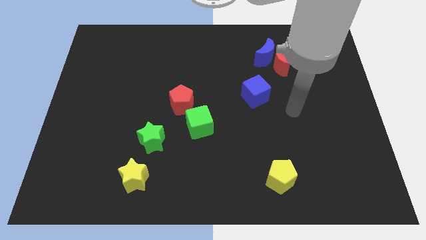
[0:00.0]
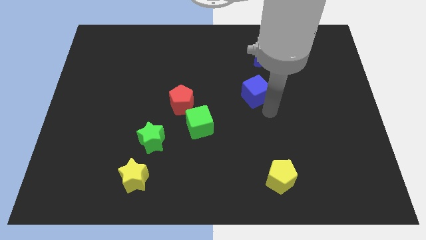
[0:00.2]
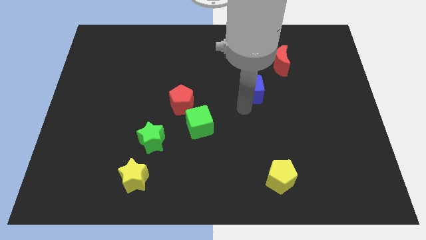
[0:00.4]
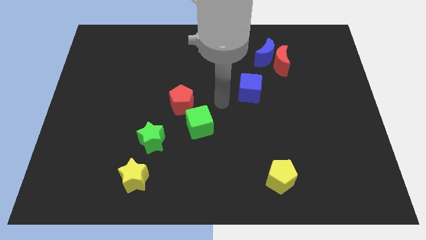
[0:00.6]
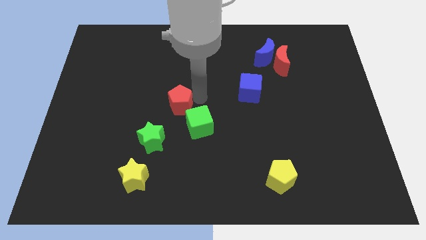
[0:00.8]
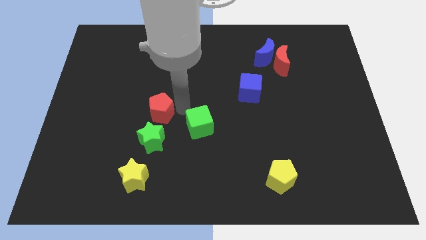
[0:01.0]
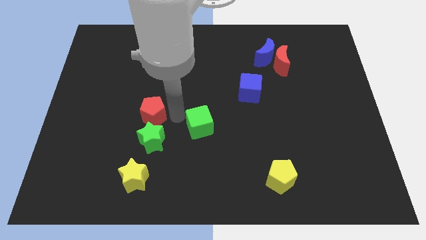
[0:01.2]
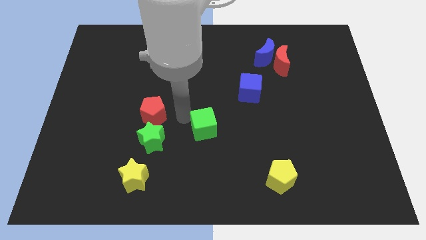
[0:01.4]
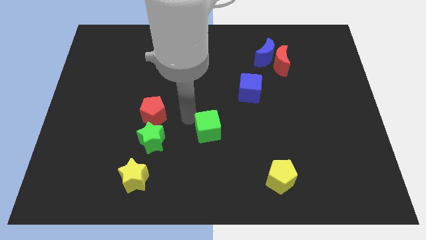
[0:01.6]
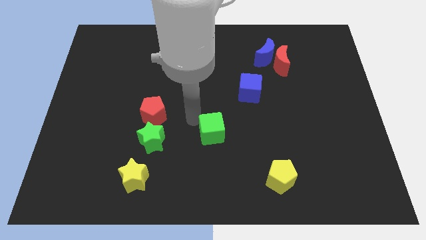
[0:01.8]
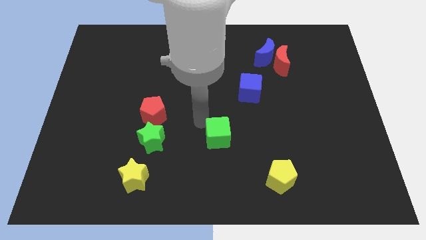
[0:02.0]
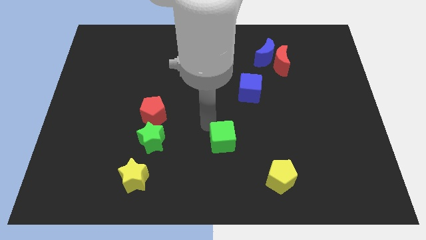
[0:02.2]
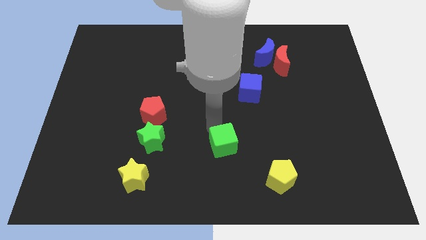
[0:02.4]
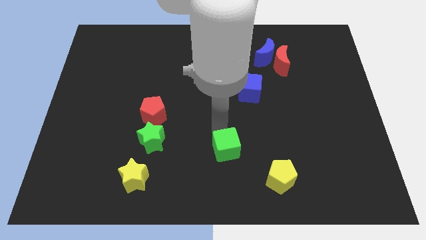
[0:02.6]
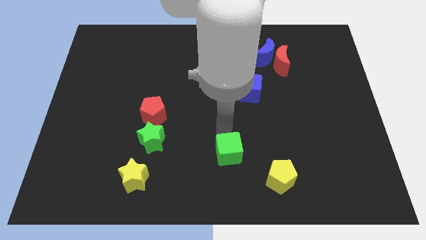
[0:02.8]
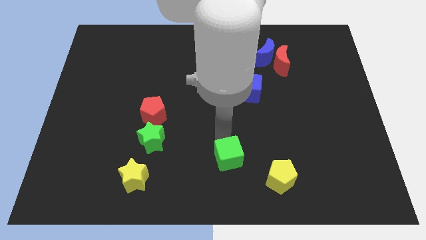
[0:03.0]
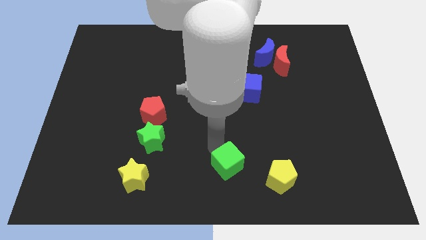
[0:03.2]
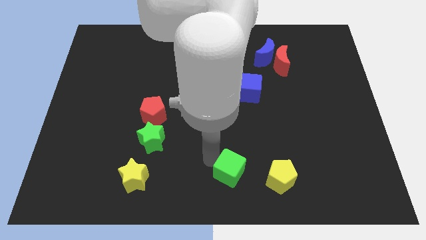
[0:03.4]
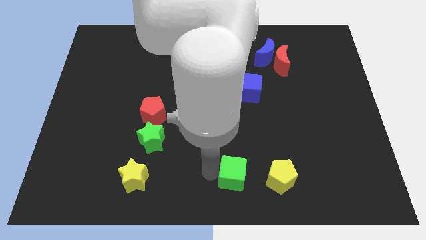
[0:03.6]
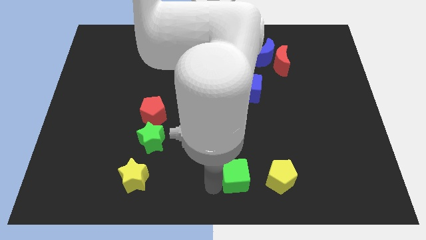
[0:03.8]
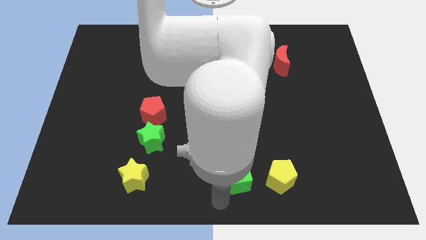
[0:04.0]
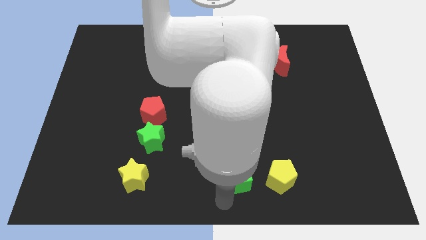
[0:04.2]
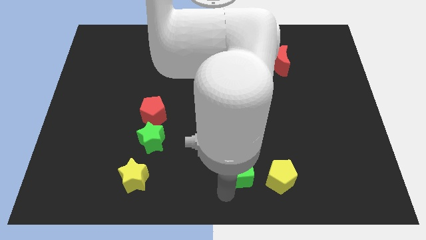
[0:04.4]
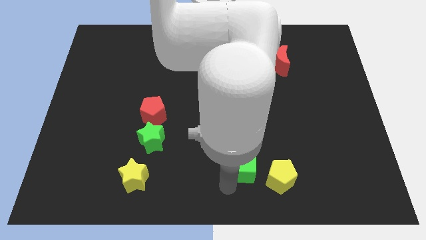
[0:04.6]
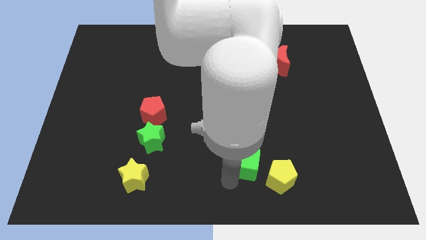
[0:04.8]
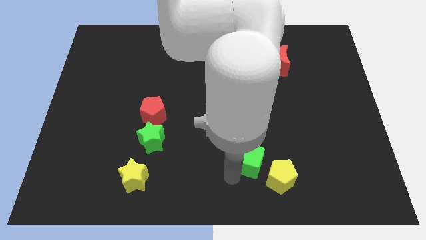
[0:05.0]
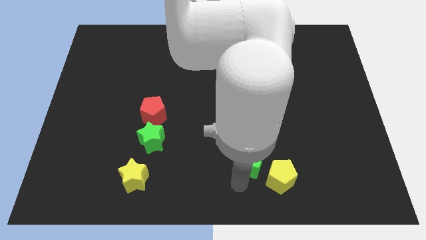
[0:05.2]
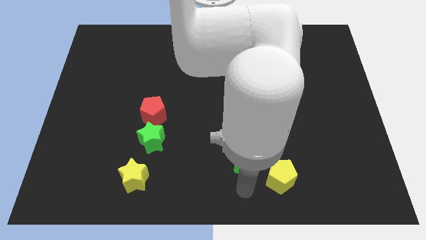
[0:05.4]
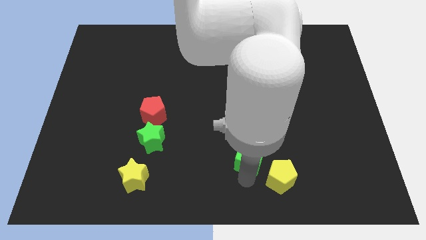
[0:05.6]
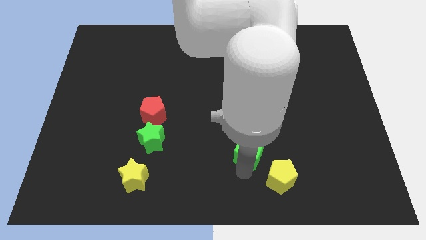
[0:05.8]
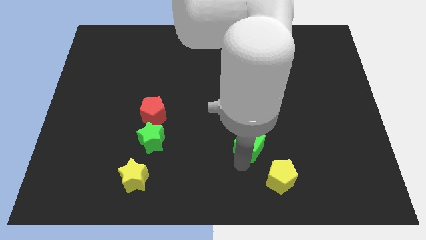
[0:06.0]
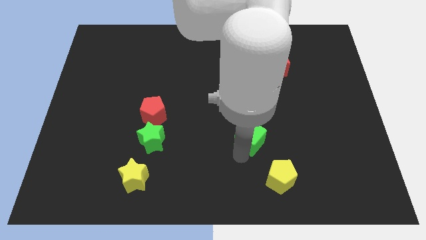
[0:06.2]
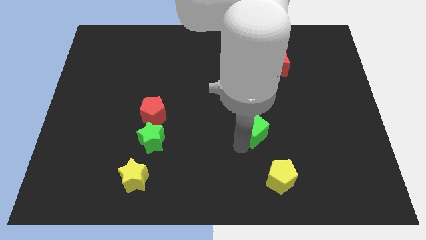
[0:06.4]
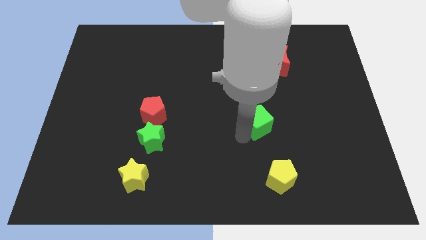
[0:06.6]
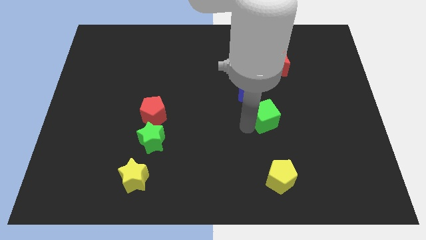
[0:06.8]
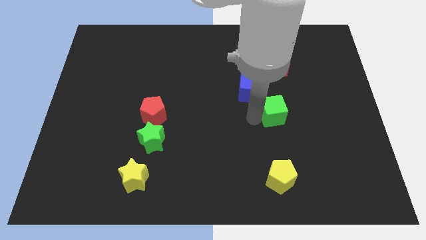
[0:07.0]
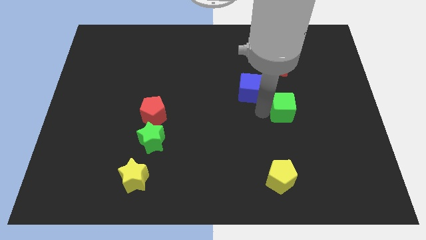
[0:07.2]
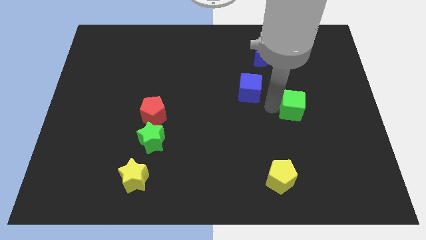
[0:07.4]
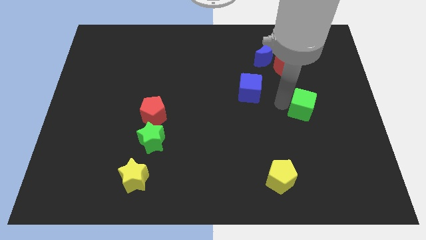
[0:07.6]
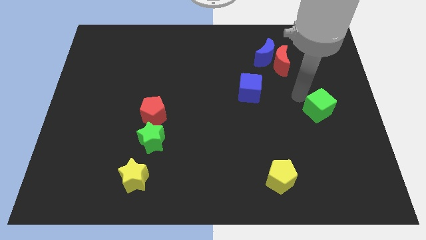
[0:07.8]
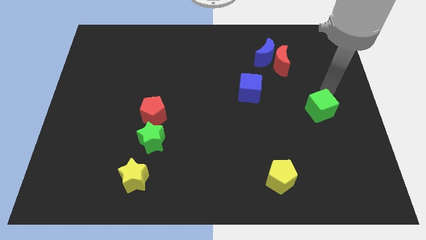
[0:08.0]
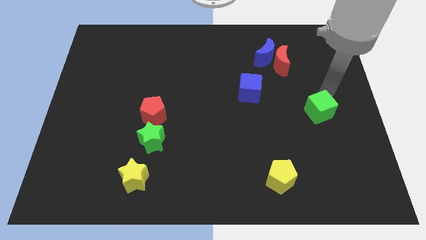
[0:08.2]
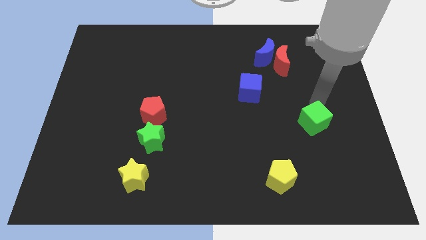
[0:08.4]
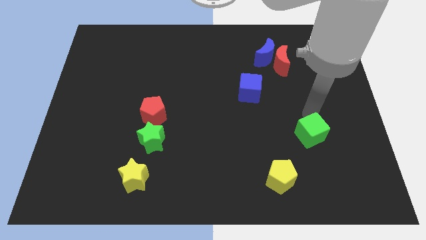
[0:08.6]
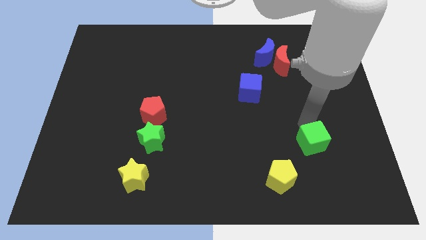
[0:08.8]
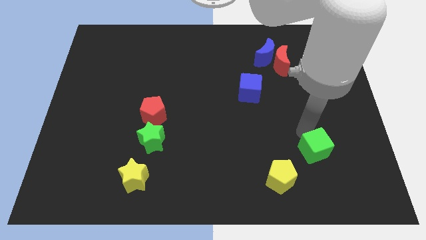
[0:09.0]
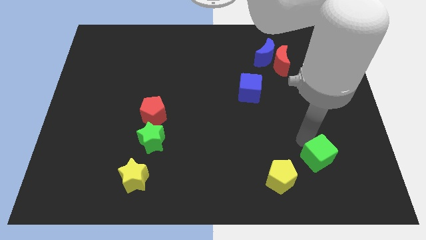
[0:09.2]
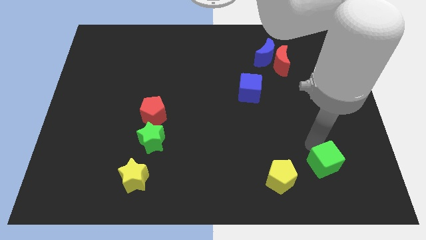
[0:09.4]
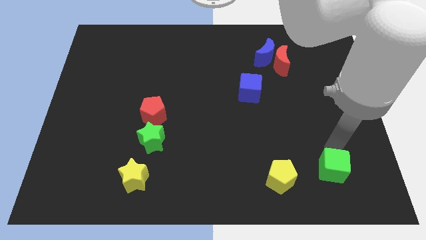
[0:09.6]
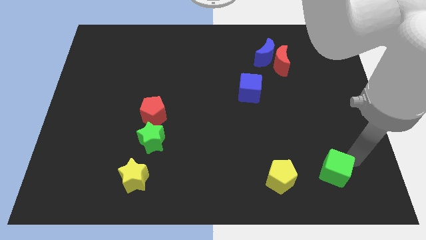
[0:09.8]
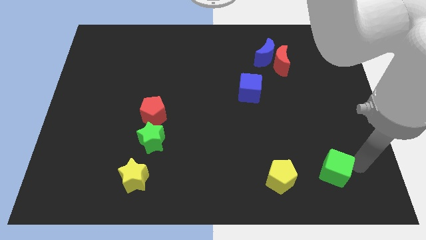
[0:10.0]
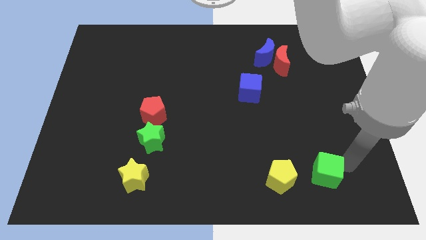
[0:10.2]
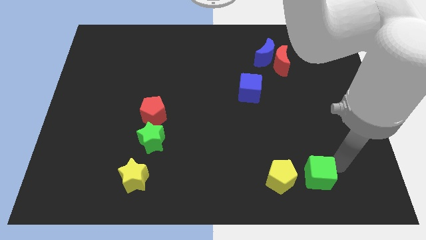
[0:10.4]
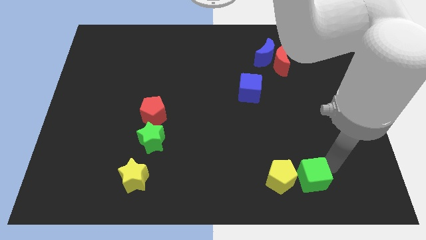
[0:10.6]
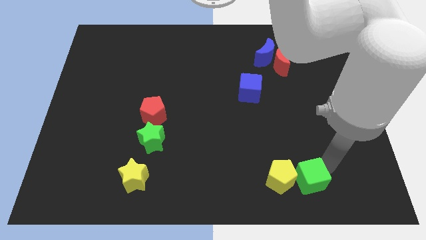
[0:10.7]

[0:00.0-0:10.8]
push the green cube to the yellow pentagon
